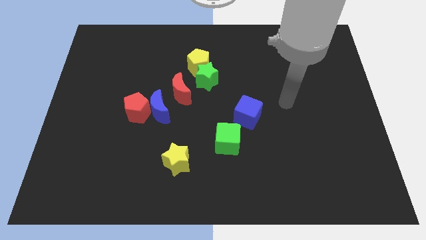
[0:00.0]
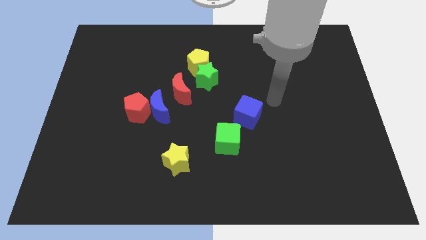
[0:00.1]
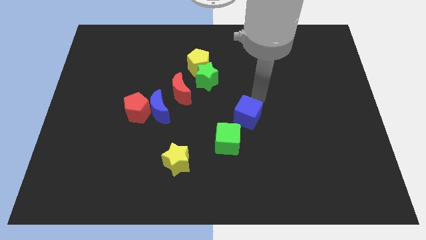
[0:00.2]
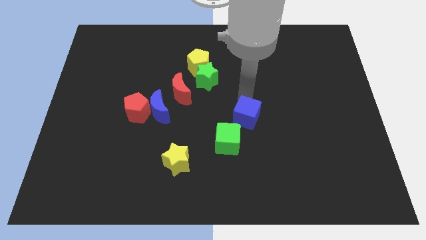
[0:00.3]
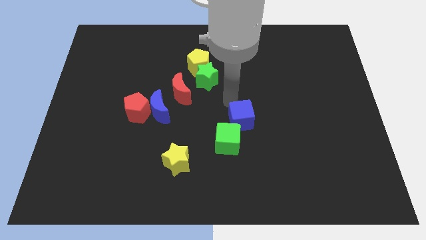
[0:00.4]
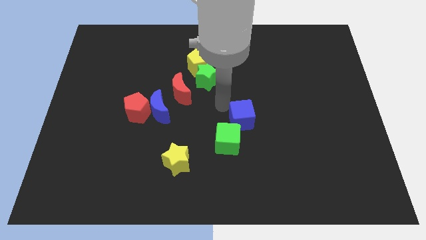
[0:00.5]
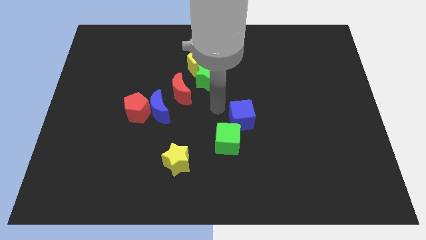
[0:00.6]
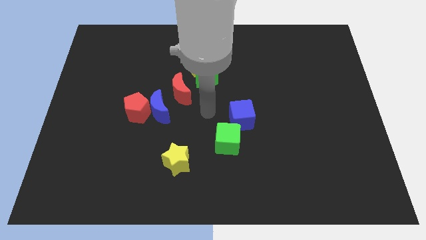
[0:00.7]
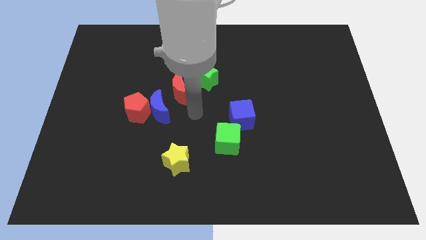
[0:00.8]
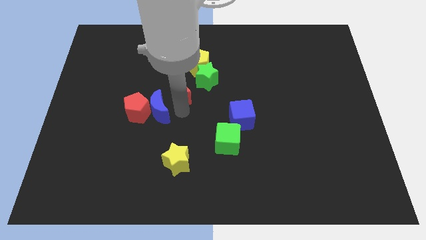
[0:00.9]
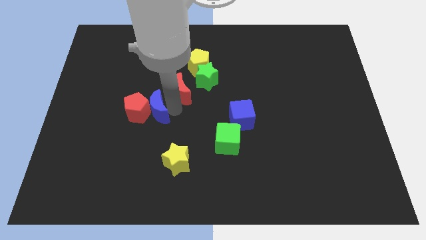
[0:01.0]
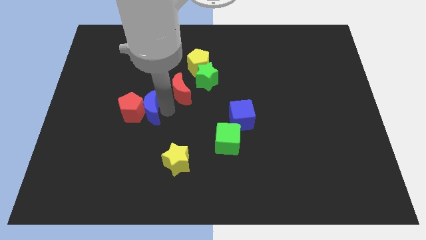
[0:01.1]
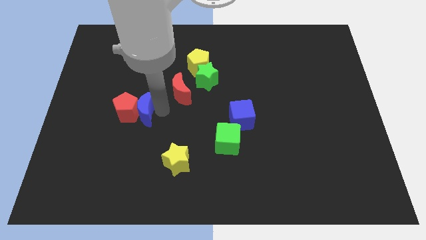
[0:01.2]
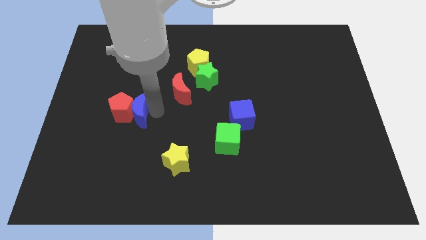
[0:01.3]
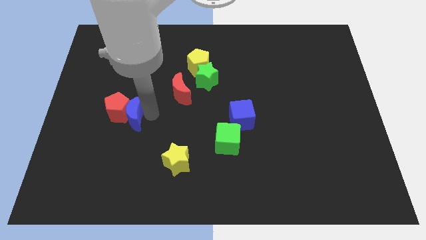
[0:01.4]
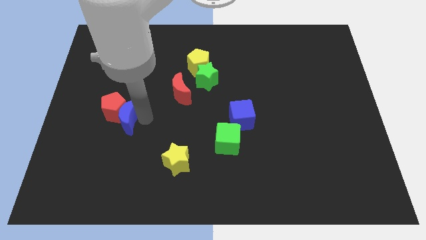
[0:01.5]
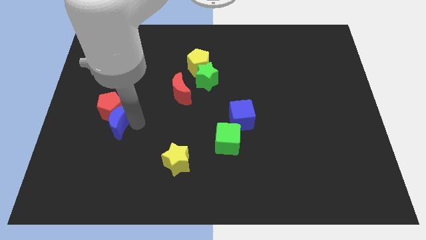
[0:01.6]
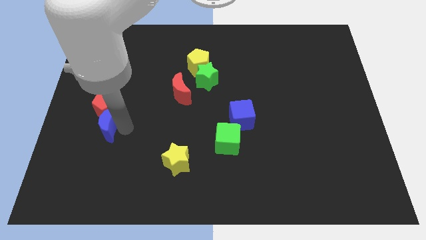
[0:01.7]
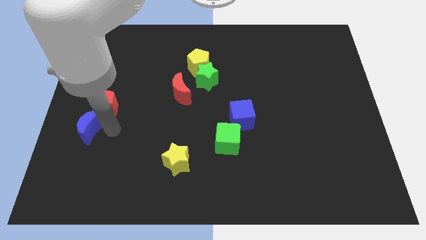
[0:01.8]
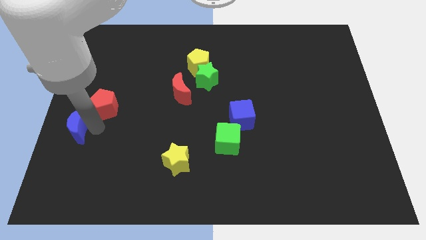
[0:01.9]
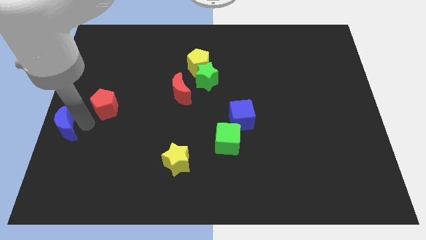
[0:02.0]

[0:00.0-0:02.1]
separate the red pentagon from the blue moon

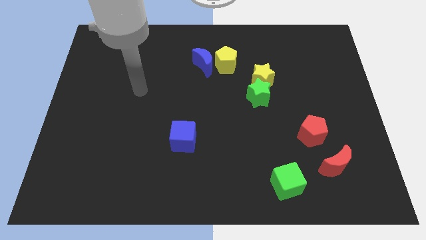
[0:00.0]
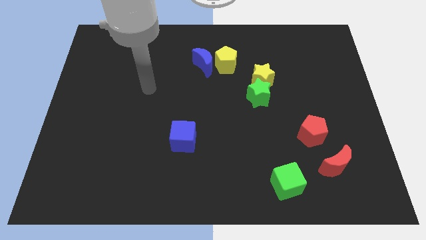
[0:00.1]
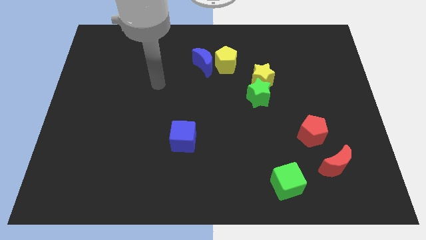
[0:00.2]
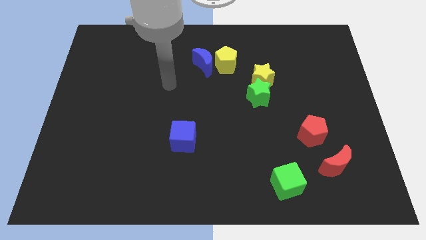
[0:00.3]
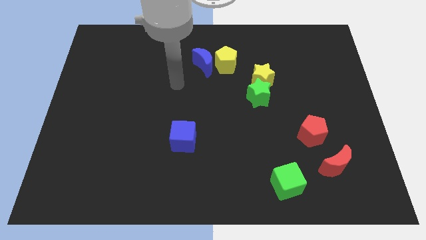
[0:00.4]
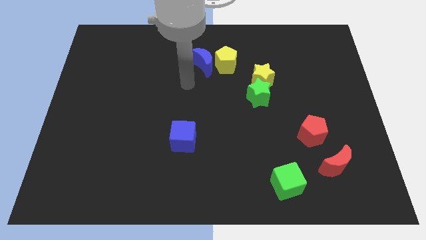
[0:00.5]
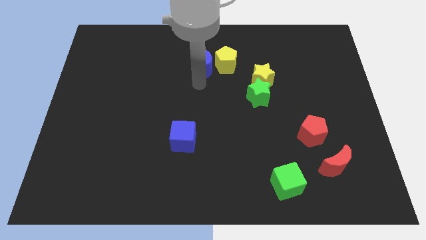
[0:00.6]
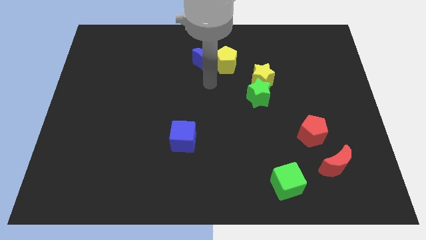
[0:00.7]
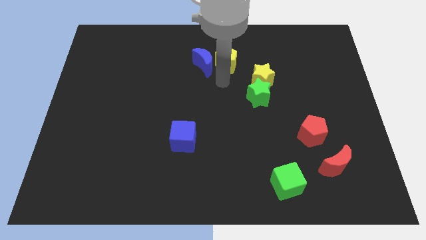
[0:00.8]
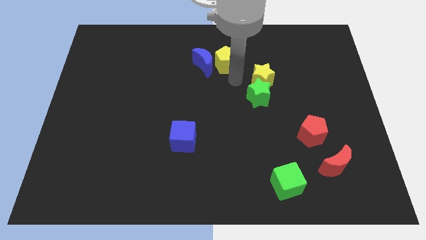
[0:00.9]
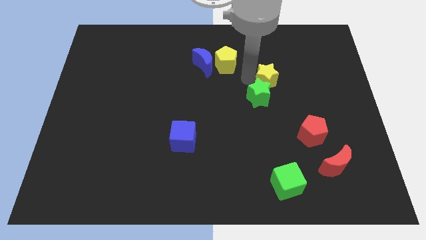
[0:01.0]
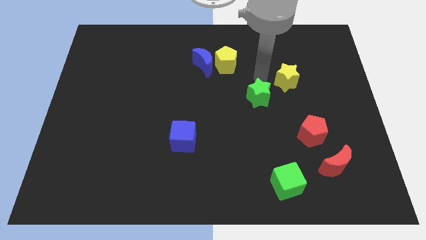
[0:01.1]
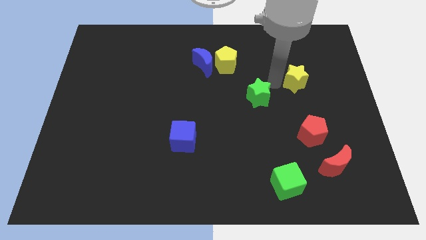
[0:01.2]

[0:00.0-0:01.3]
separate the green star from the yellow star

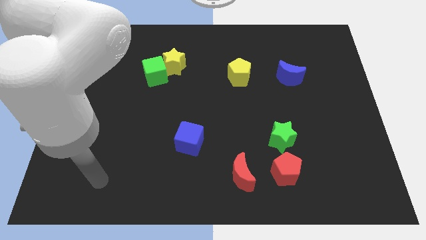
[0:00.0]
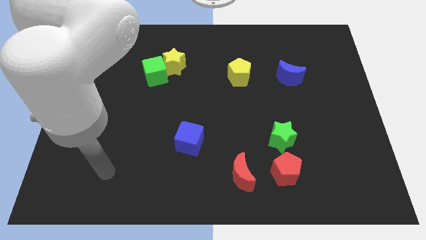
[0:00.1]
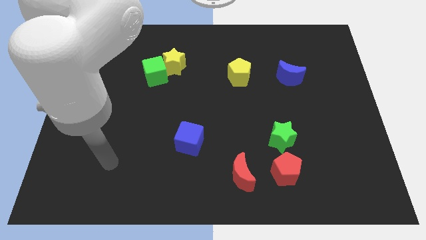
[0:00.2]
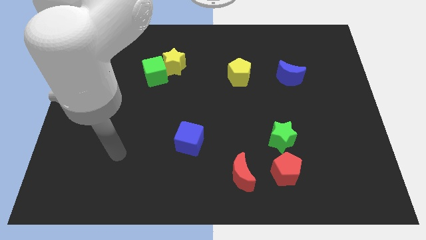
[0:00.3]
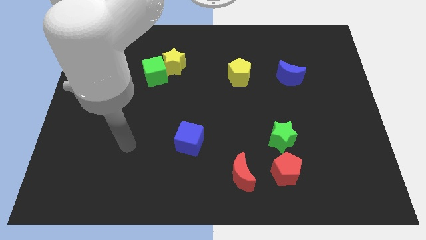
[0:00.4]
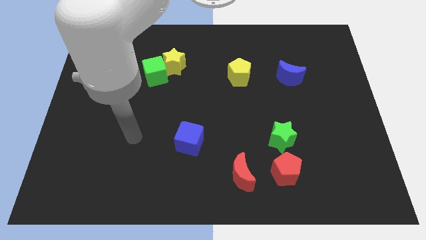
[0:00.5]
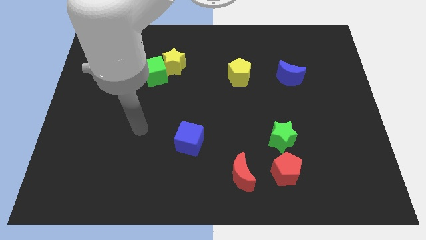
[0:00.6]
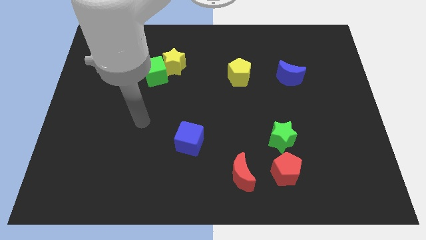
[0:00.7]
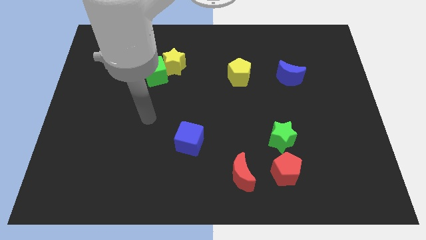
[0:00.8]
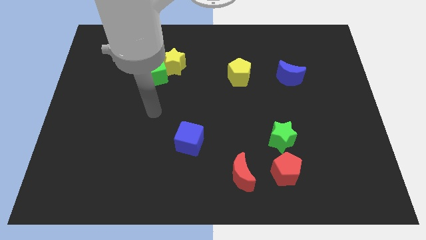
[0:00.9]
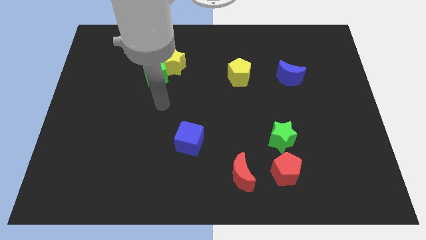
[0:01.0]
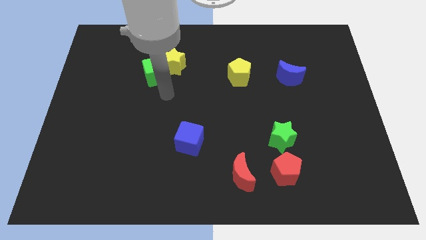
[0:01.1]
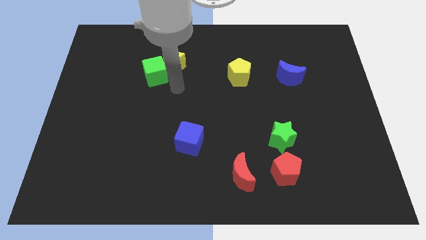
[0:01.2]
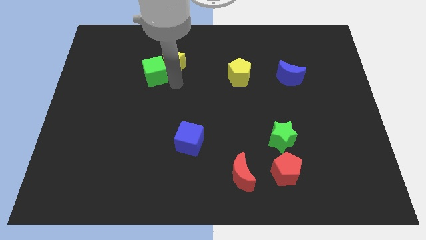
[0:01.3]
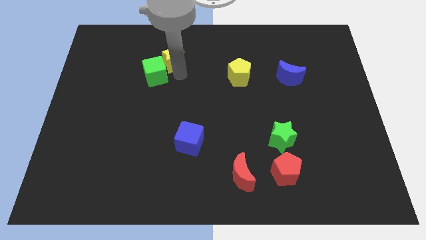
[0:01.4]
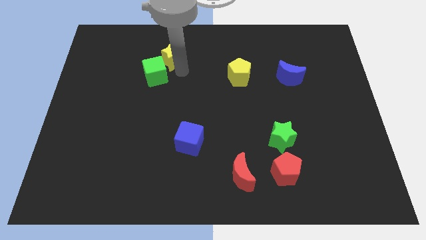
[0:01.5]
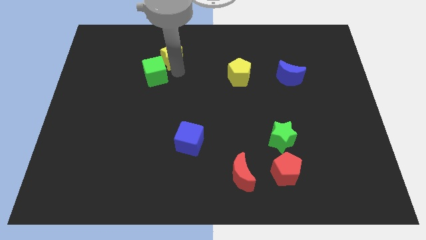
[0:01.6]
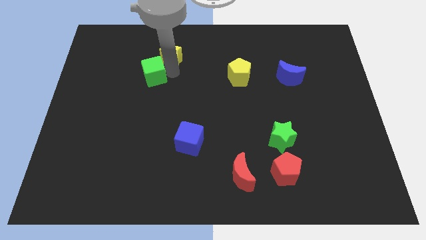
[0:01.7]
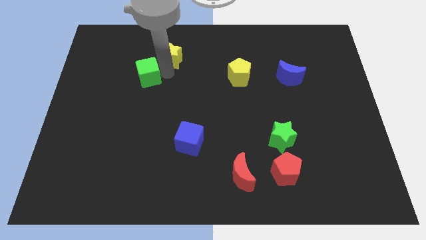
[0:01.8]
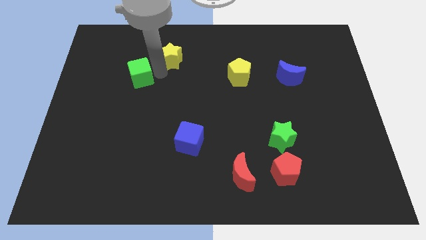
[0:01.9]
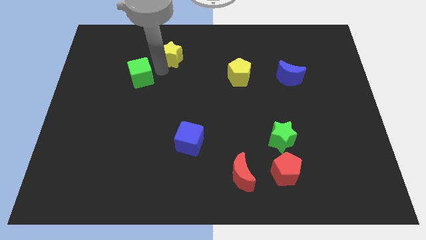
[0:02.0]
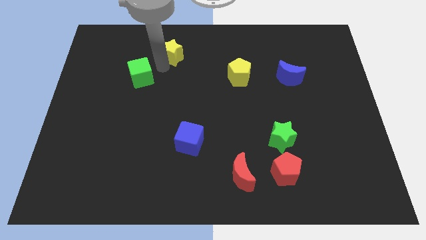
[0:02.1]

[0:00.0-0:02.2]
pull the green cube apart from the yellow star

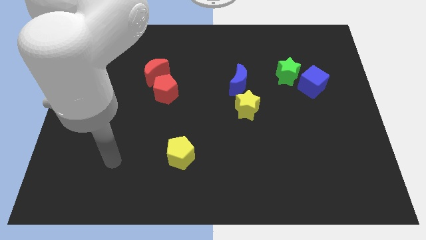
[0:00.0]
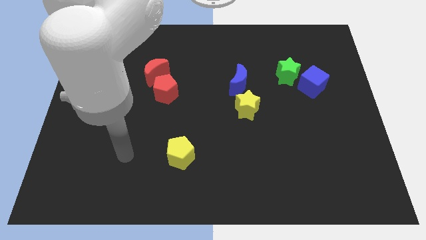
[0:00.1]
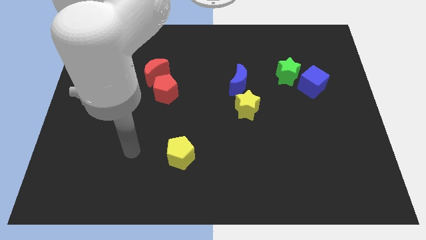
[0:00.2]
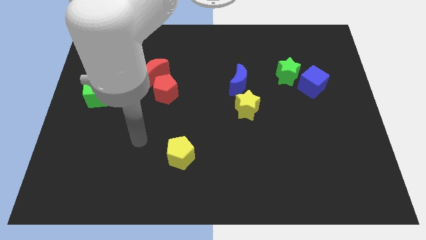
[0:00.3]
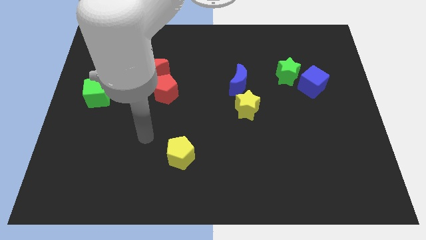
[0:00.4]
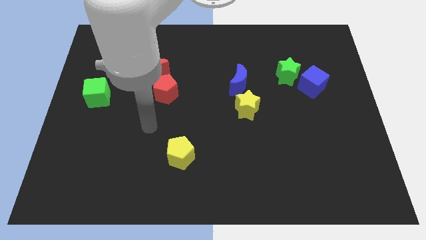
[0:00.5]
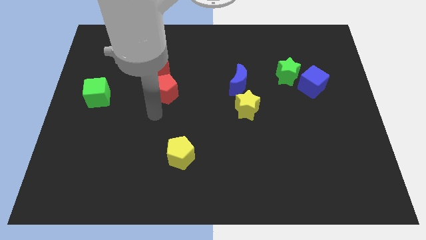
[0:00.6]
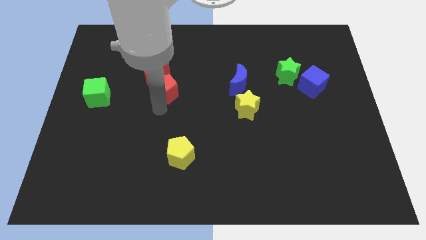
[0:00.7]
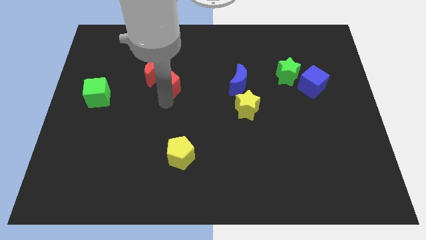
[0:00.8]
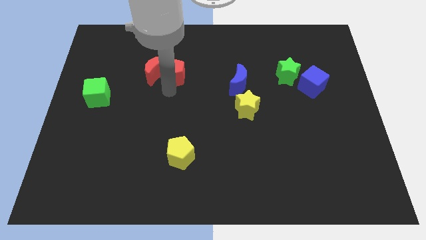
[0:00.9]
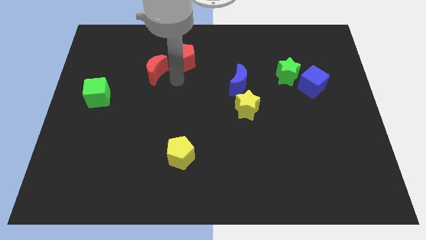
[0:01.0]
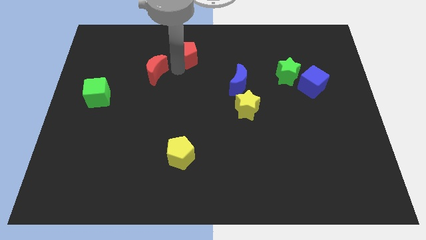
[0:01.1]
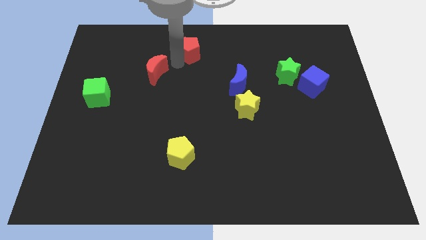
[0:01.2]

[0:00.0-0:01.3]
pull the red moon apart from the red pentagon

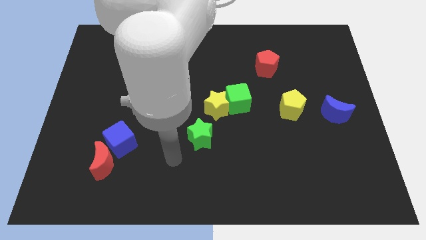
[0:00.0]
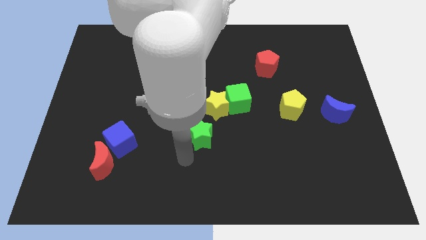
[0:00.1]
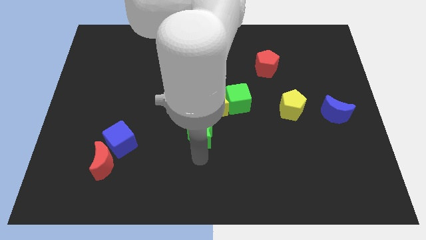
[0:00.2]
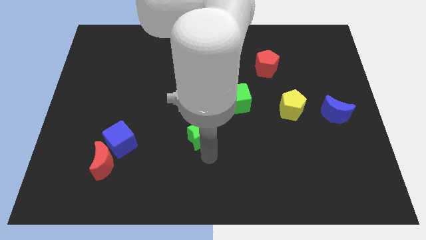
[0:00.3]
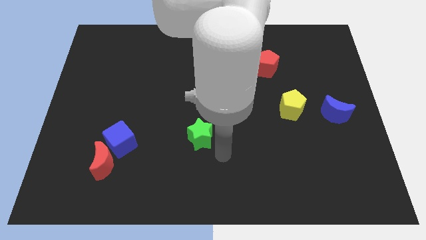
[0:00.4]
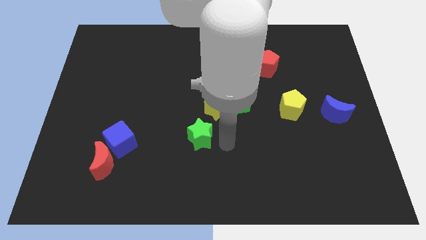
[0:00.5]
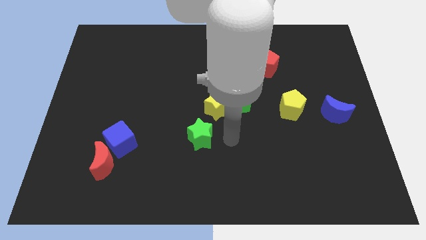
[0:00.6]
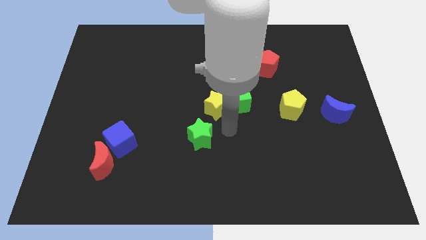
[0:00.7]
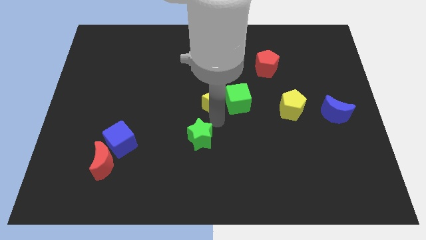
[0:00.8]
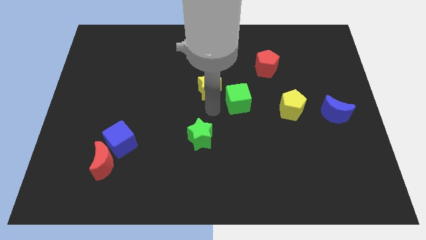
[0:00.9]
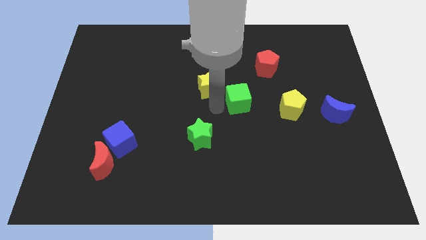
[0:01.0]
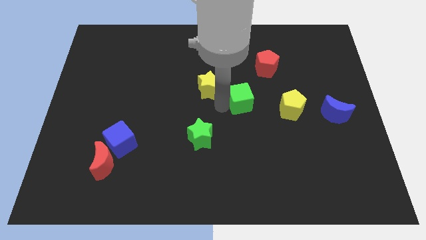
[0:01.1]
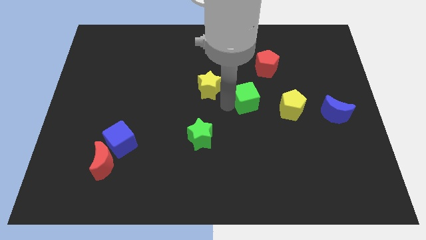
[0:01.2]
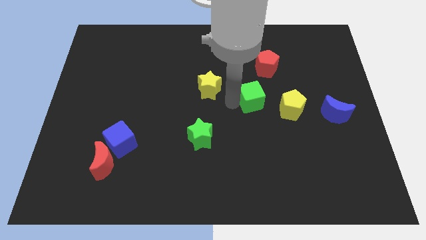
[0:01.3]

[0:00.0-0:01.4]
move the green cube away from the yellow star

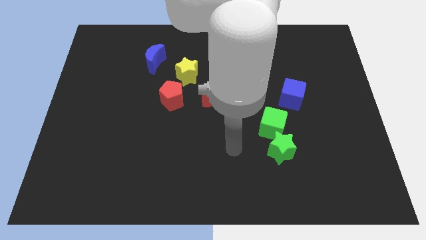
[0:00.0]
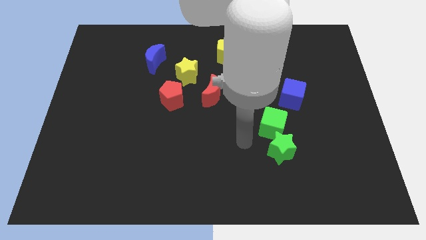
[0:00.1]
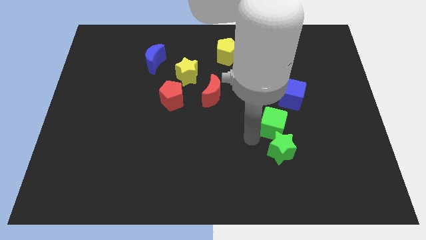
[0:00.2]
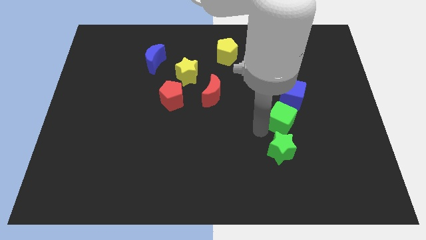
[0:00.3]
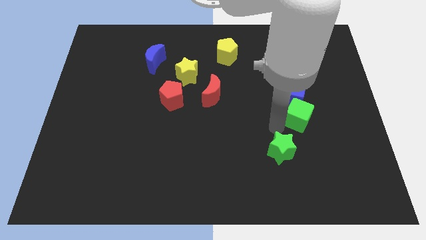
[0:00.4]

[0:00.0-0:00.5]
pull the green star apart from the green cube

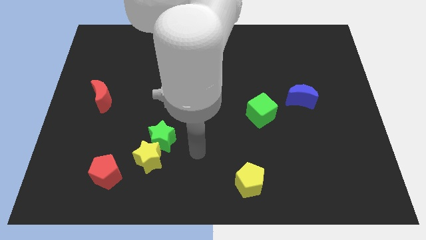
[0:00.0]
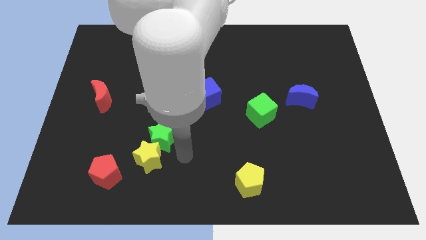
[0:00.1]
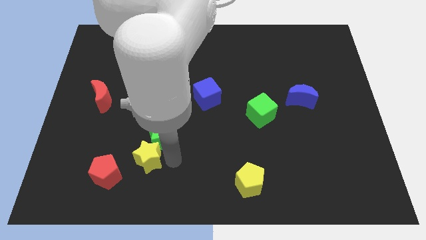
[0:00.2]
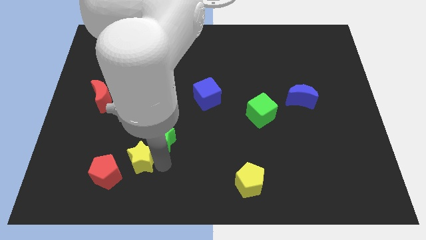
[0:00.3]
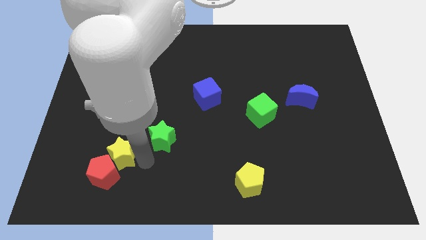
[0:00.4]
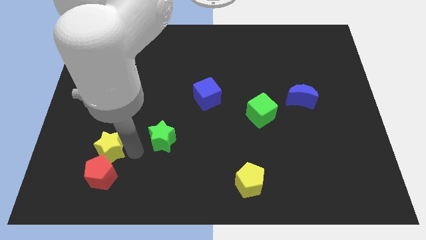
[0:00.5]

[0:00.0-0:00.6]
pull the green star apart from the yellow star

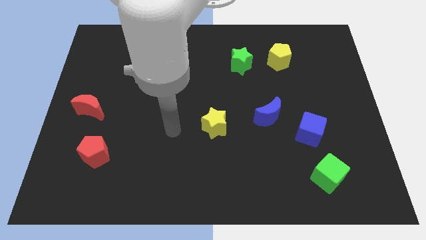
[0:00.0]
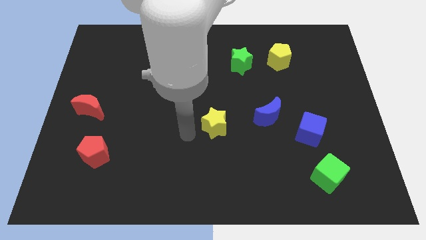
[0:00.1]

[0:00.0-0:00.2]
pull the blue moon apart from the blue cube
